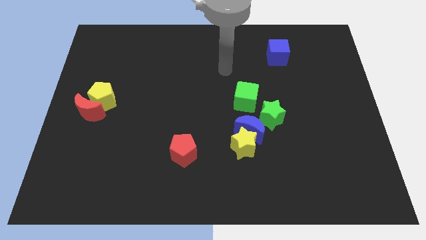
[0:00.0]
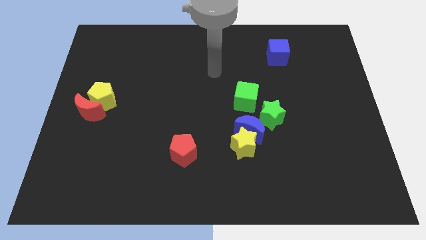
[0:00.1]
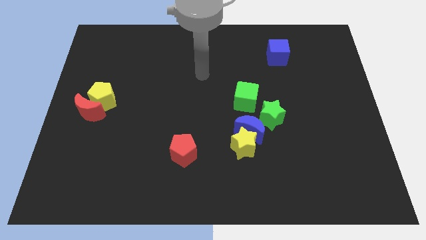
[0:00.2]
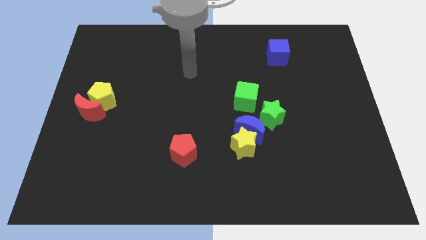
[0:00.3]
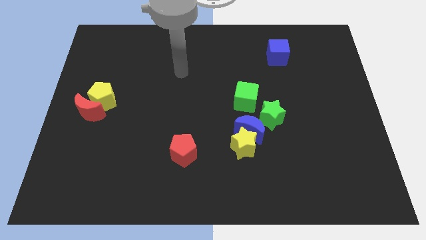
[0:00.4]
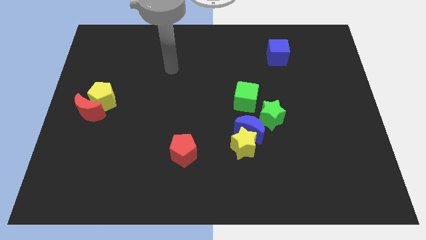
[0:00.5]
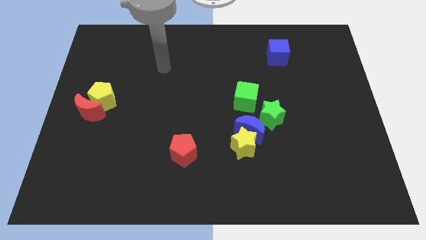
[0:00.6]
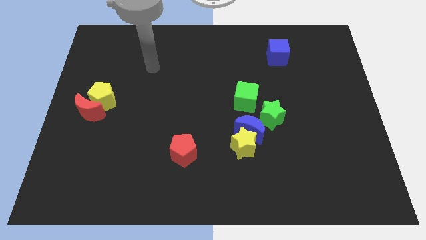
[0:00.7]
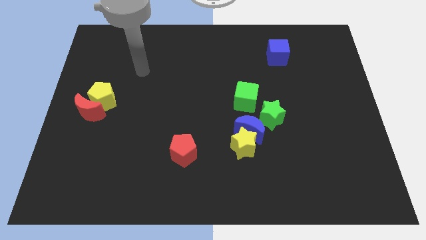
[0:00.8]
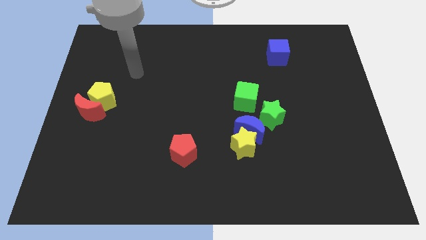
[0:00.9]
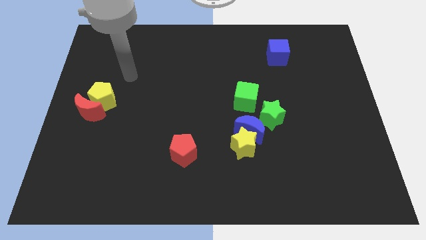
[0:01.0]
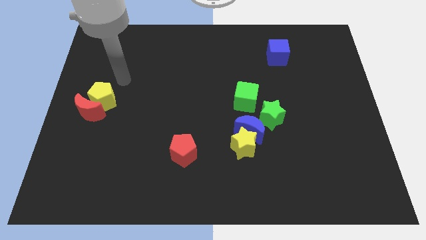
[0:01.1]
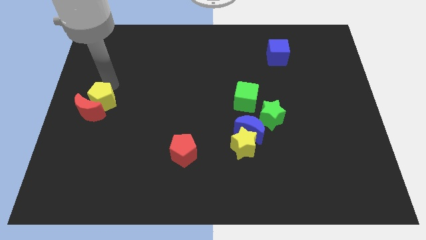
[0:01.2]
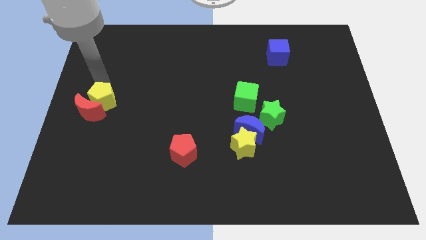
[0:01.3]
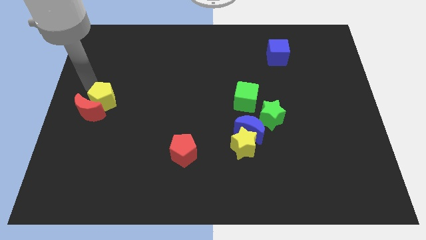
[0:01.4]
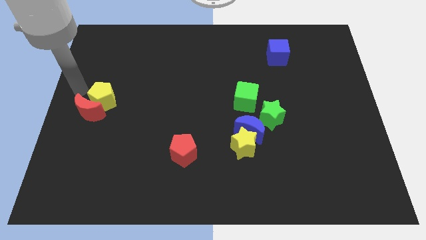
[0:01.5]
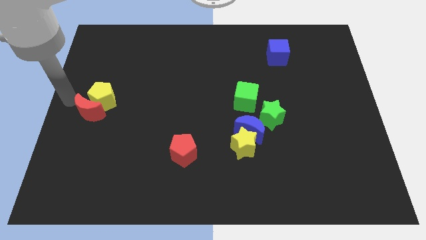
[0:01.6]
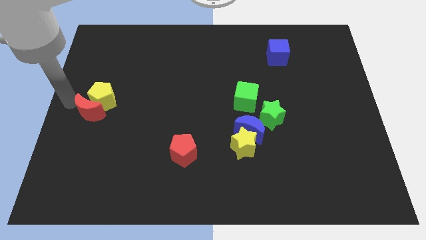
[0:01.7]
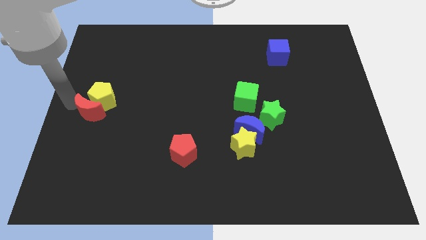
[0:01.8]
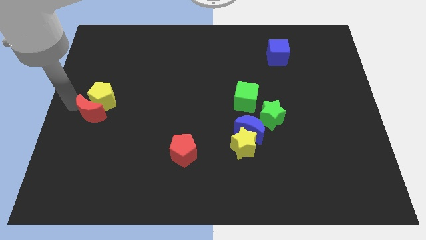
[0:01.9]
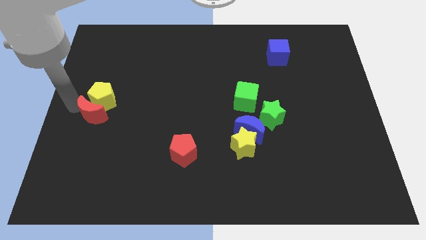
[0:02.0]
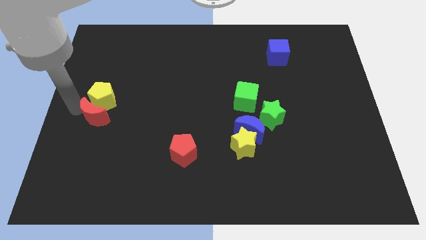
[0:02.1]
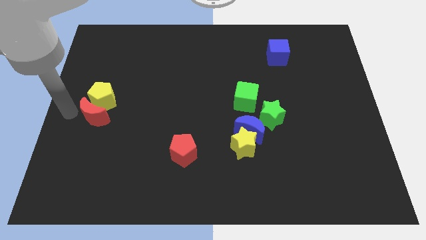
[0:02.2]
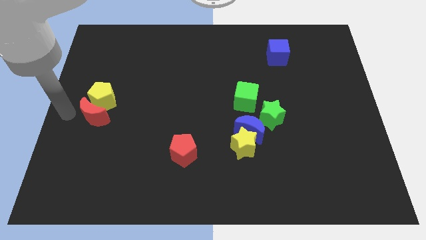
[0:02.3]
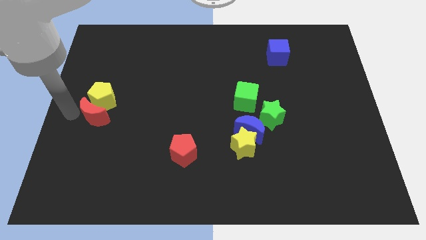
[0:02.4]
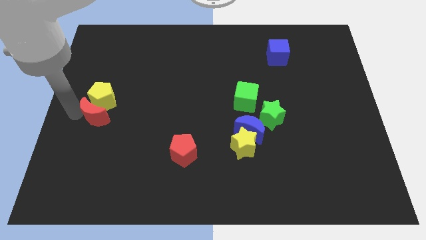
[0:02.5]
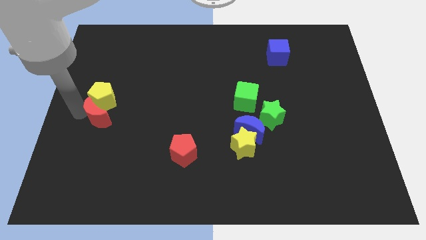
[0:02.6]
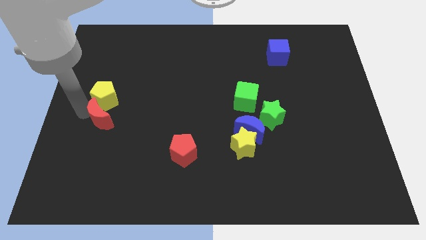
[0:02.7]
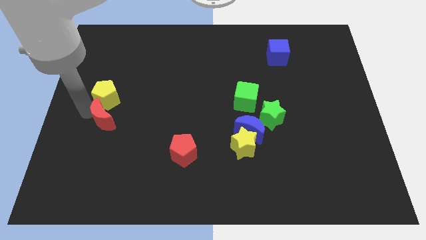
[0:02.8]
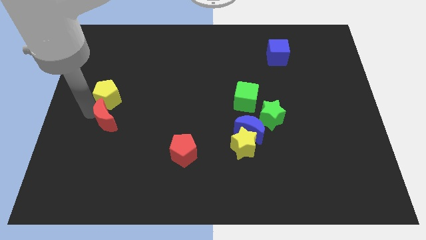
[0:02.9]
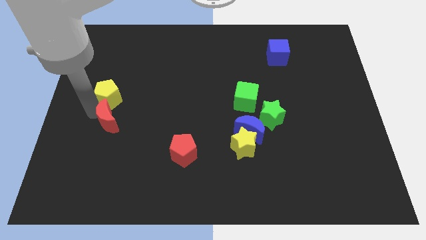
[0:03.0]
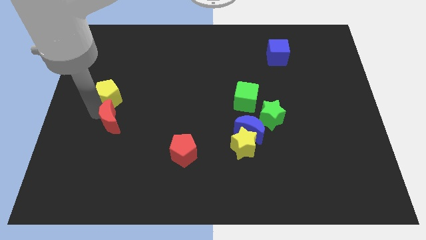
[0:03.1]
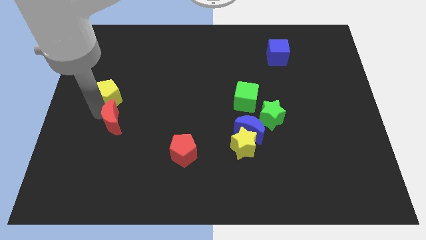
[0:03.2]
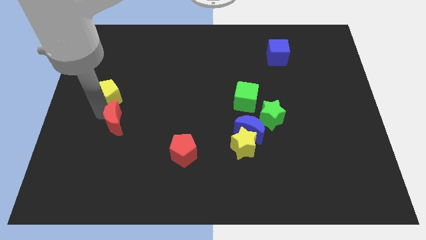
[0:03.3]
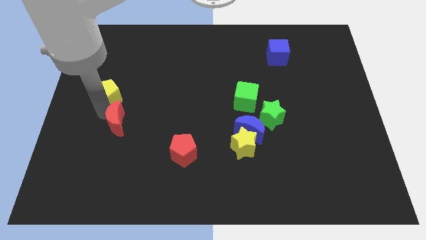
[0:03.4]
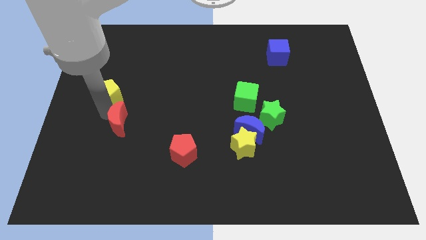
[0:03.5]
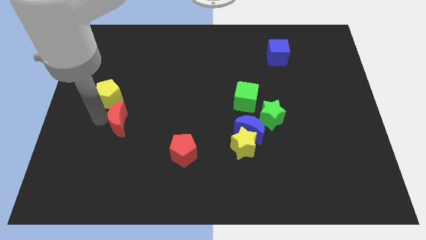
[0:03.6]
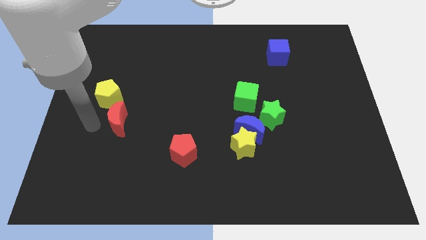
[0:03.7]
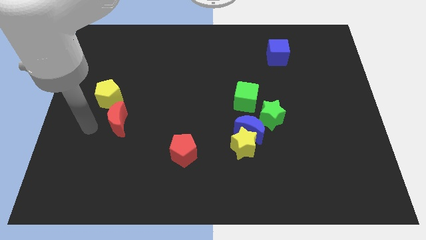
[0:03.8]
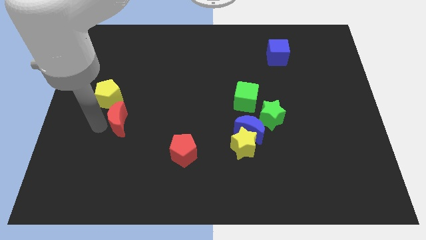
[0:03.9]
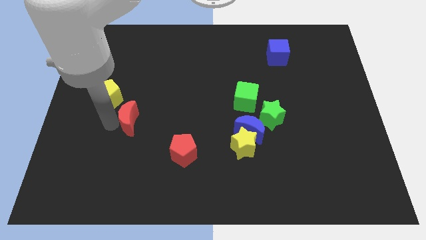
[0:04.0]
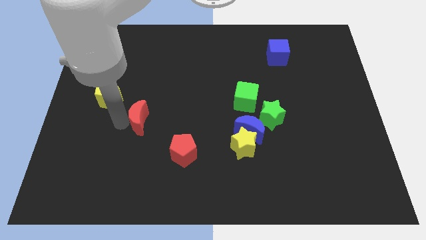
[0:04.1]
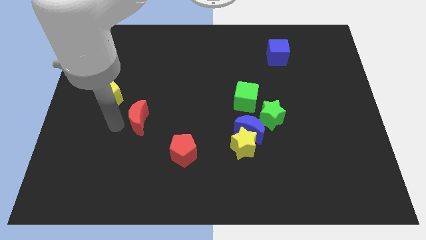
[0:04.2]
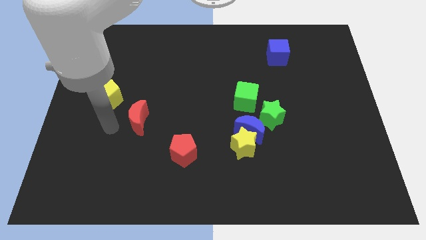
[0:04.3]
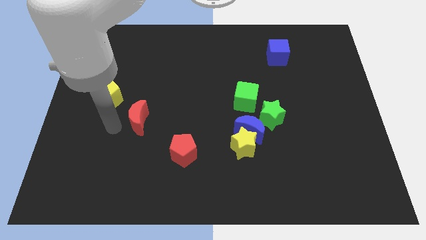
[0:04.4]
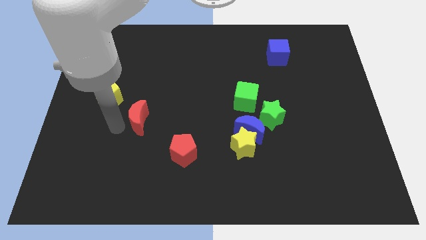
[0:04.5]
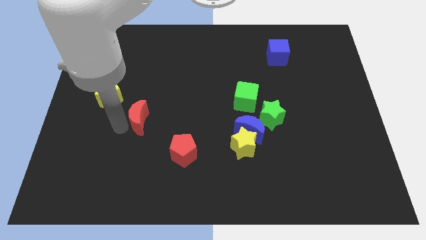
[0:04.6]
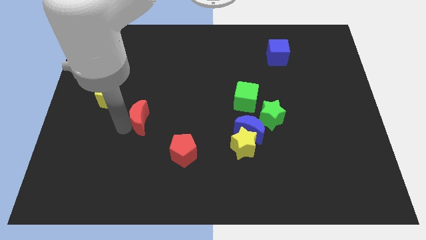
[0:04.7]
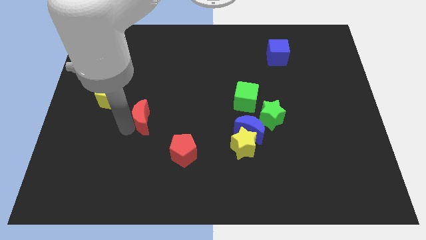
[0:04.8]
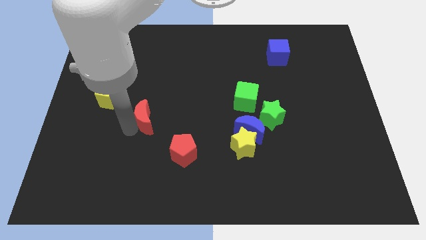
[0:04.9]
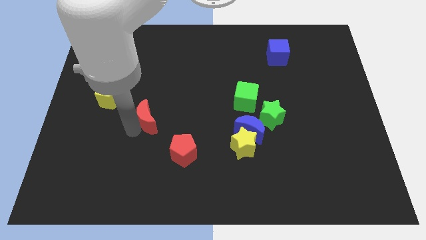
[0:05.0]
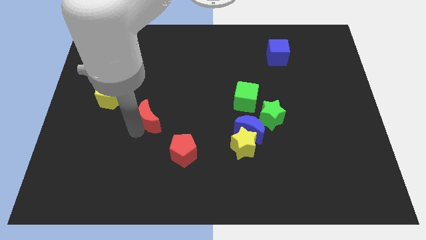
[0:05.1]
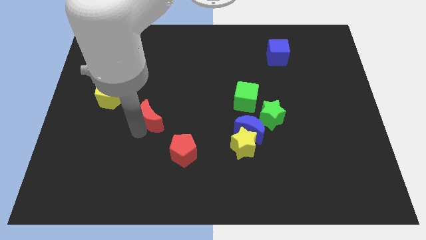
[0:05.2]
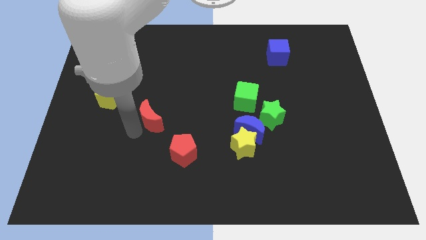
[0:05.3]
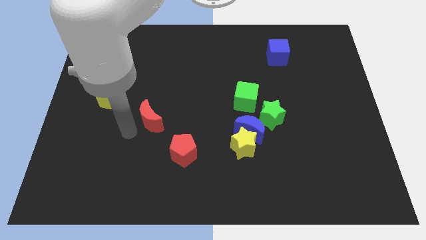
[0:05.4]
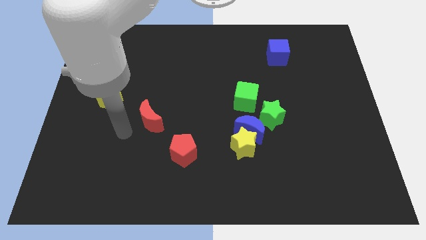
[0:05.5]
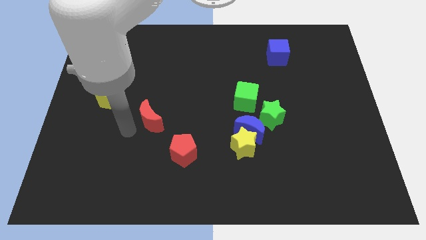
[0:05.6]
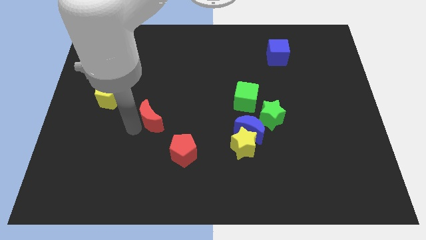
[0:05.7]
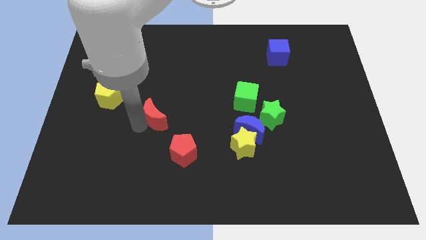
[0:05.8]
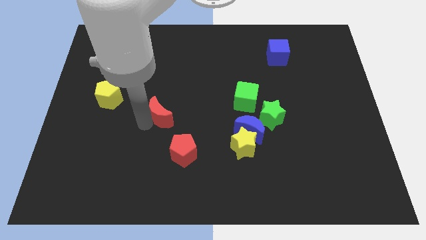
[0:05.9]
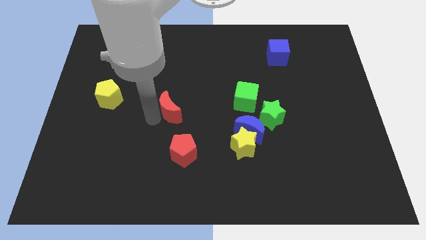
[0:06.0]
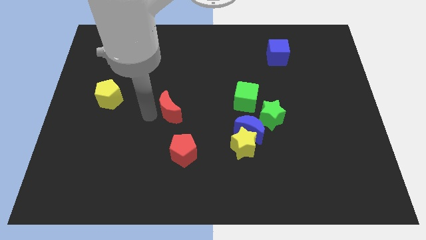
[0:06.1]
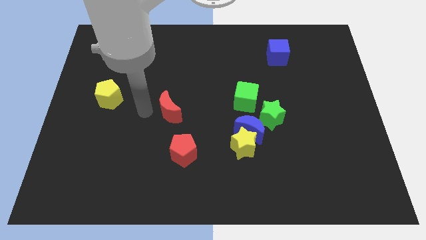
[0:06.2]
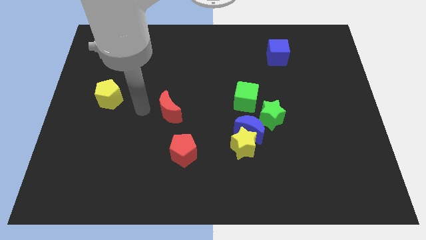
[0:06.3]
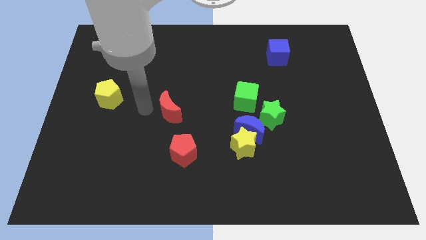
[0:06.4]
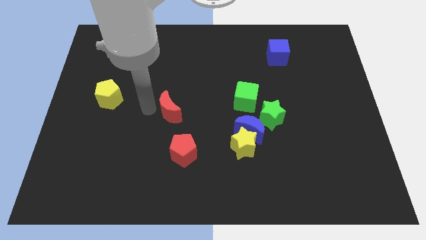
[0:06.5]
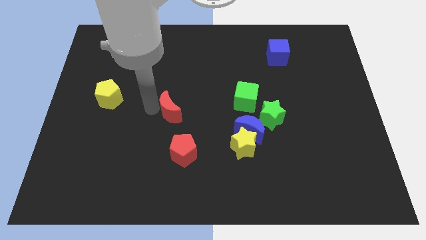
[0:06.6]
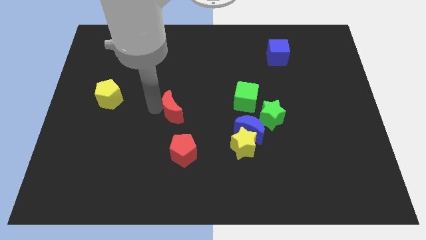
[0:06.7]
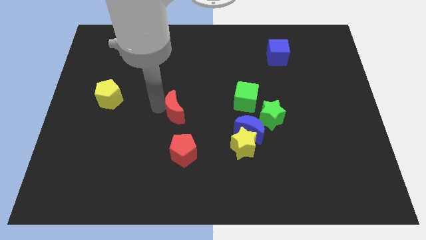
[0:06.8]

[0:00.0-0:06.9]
push the red moon to the right

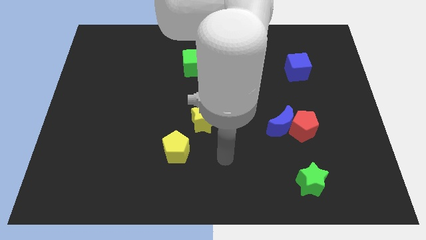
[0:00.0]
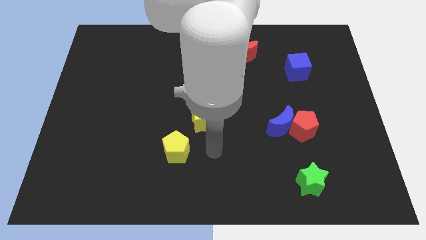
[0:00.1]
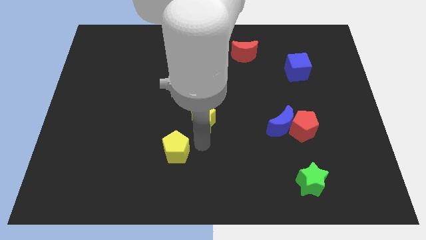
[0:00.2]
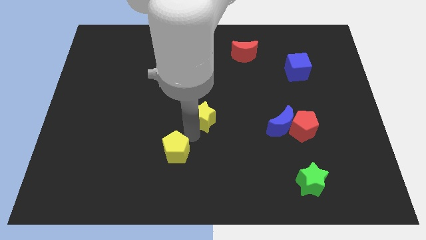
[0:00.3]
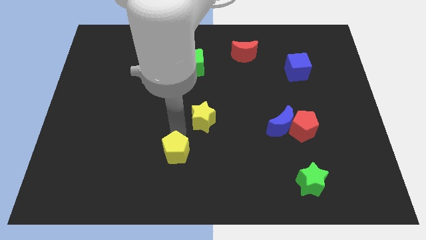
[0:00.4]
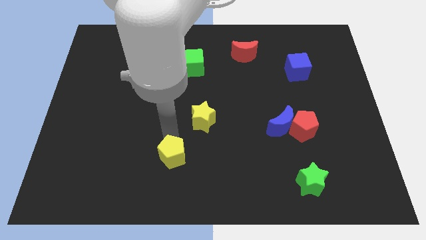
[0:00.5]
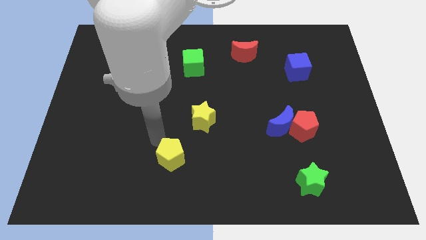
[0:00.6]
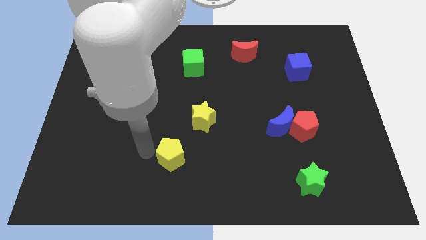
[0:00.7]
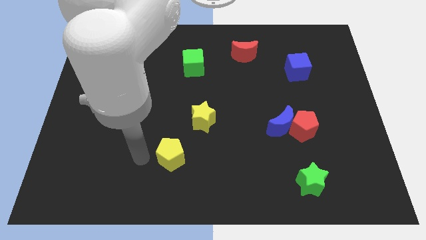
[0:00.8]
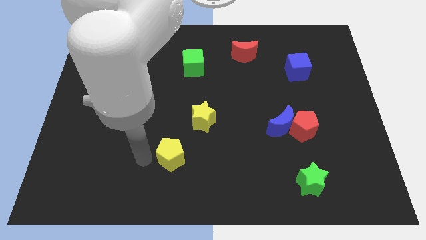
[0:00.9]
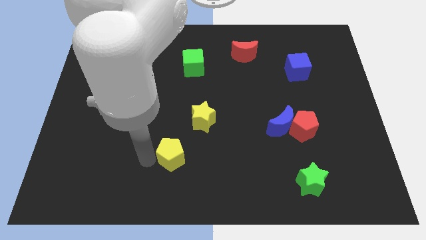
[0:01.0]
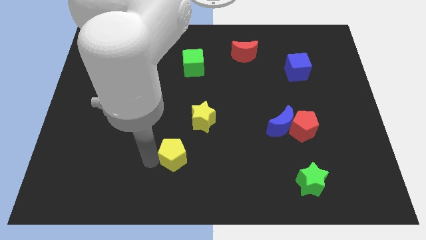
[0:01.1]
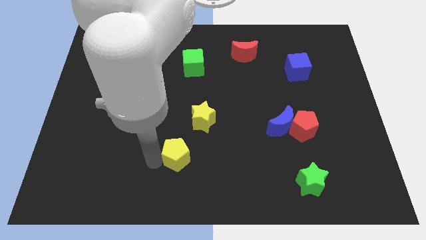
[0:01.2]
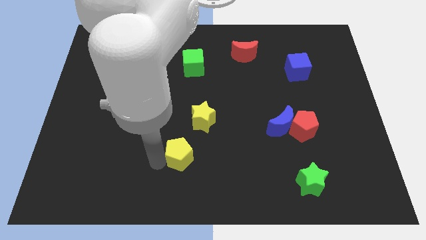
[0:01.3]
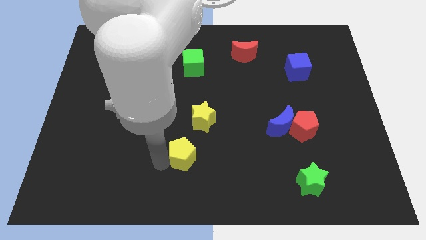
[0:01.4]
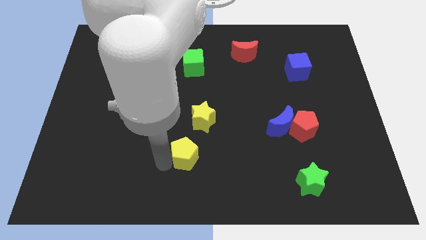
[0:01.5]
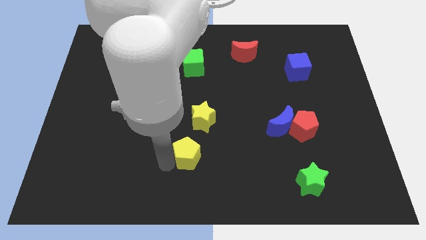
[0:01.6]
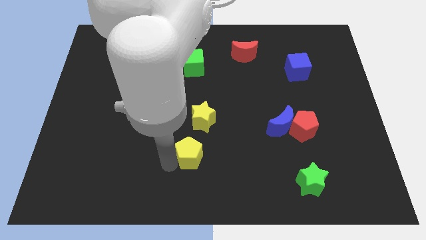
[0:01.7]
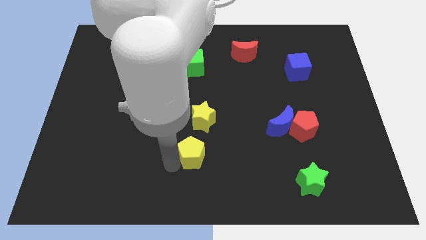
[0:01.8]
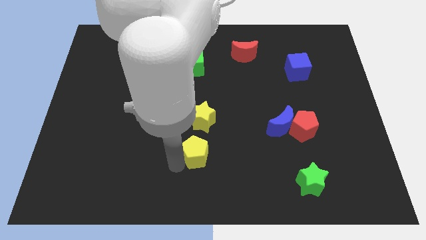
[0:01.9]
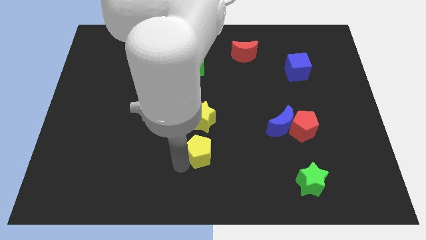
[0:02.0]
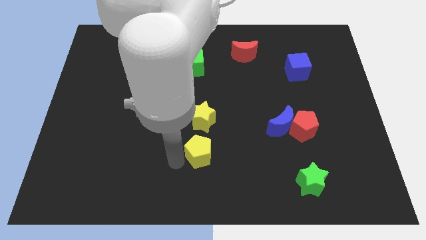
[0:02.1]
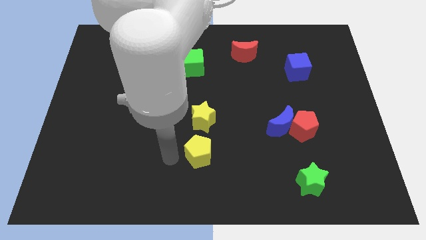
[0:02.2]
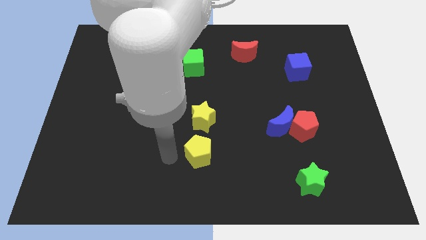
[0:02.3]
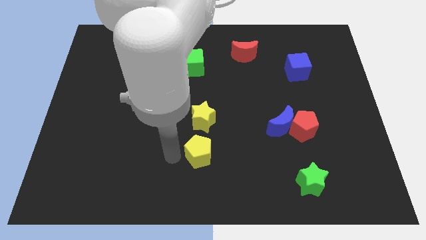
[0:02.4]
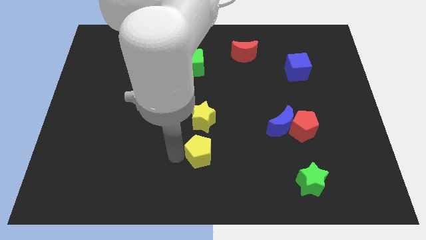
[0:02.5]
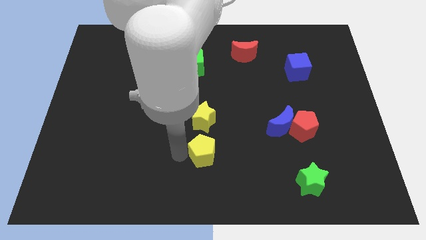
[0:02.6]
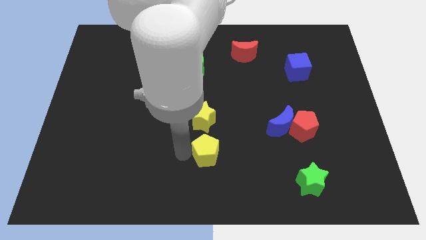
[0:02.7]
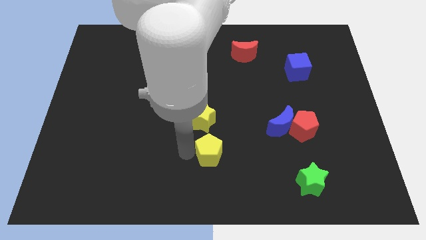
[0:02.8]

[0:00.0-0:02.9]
push the yellow pentagon a bit to the right
